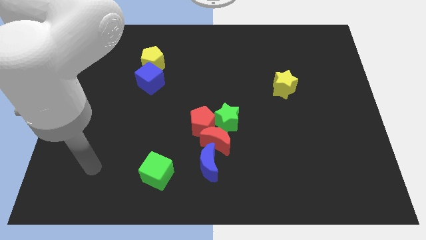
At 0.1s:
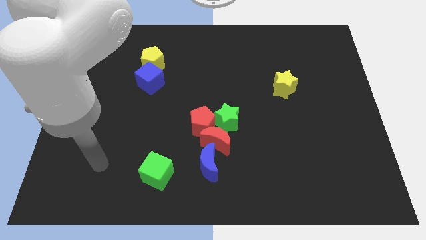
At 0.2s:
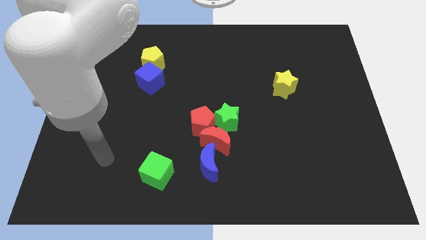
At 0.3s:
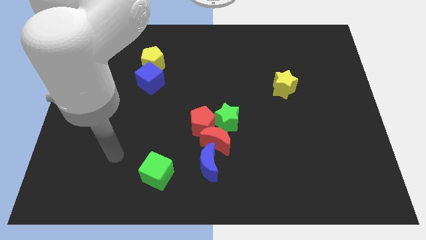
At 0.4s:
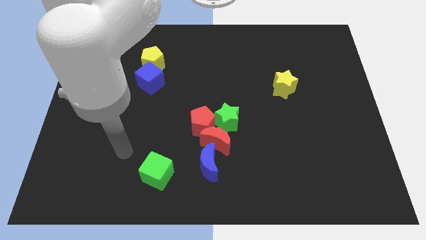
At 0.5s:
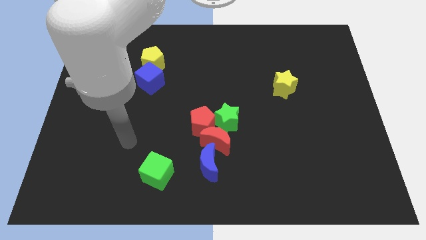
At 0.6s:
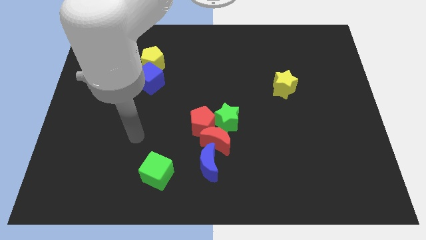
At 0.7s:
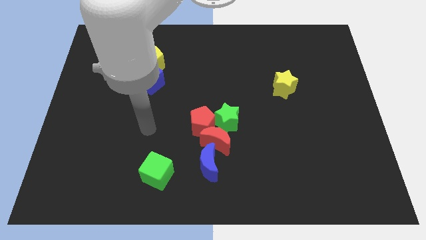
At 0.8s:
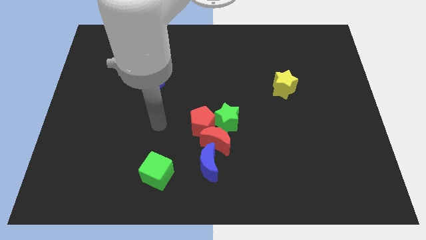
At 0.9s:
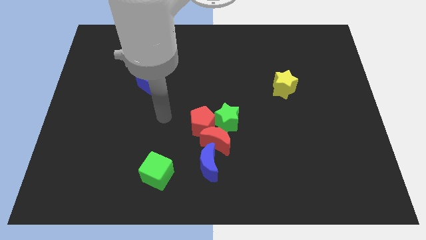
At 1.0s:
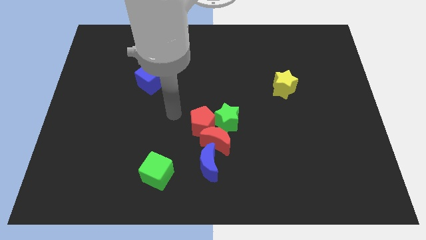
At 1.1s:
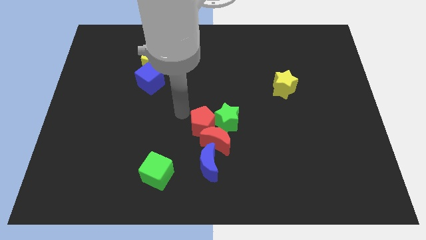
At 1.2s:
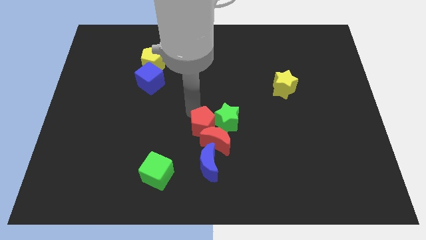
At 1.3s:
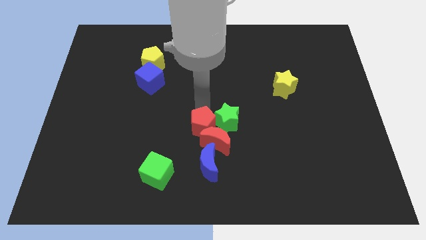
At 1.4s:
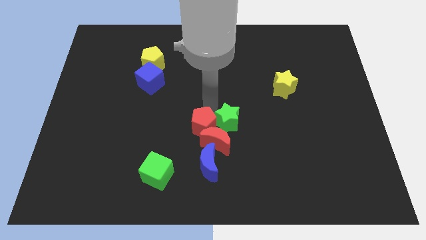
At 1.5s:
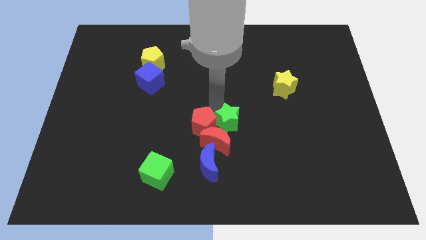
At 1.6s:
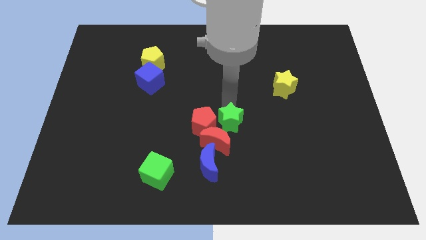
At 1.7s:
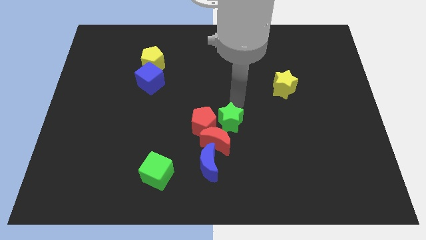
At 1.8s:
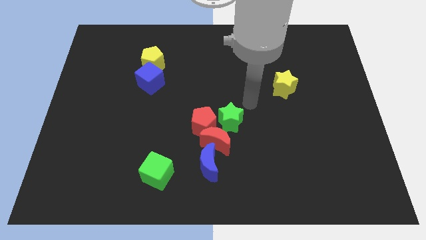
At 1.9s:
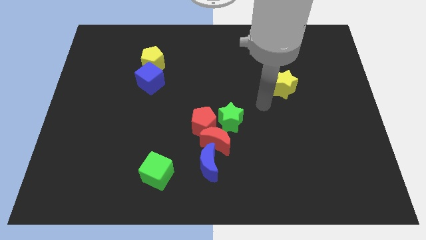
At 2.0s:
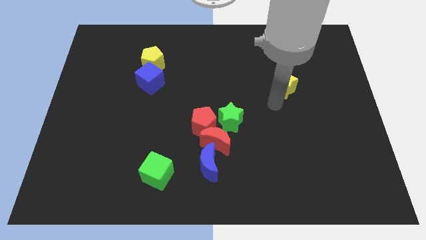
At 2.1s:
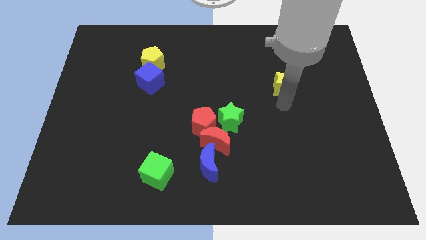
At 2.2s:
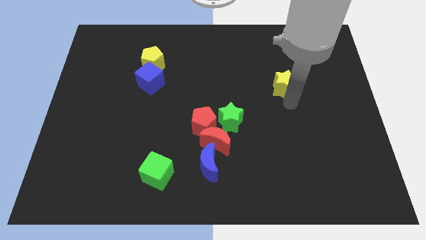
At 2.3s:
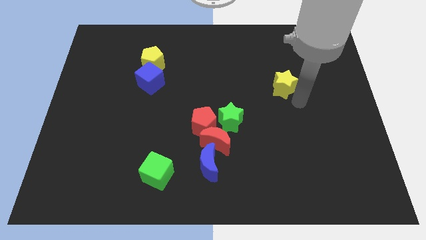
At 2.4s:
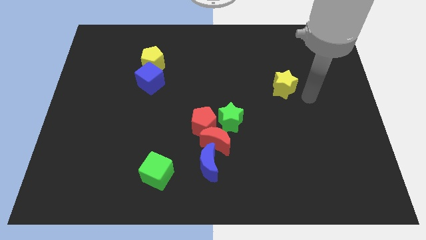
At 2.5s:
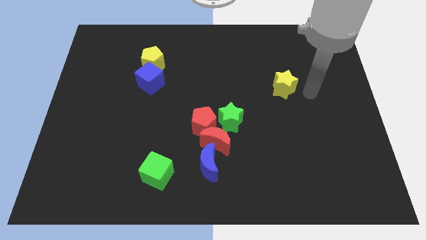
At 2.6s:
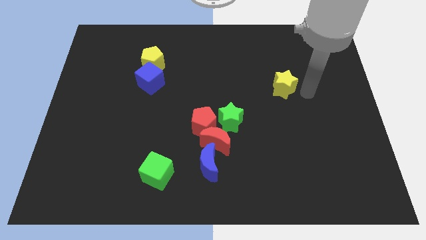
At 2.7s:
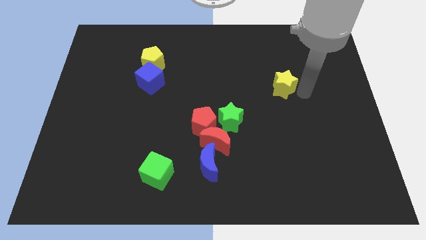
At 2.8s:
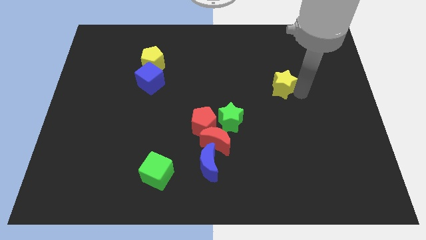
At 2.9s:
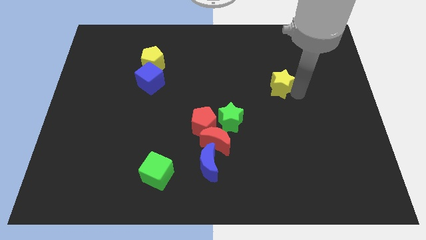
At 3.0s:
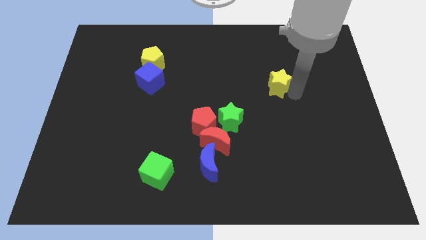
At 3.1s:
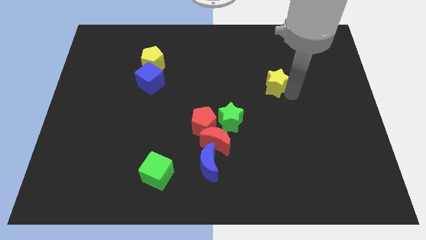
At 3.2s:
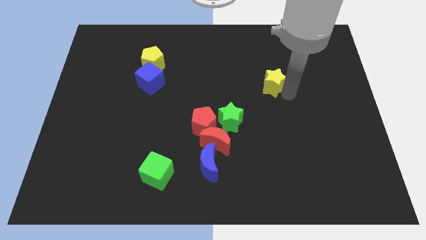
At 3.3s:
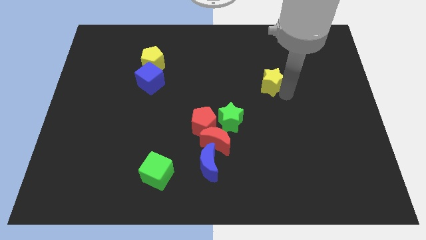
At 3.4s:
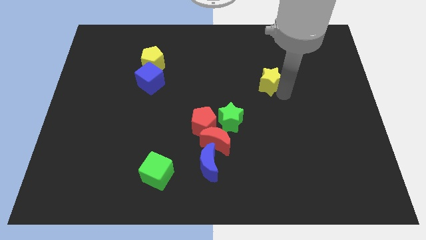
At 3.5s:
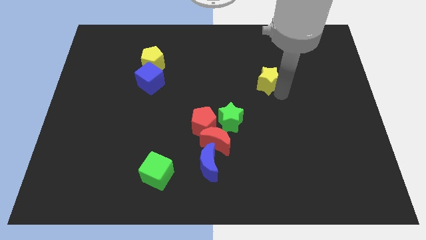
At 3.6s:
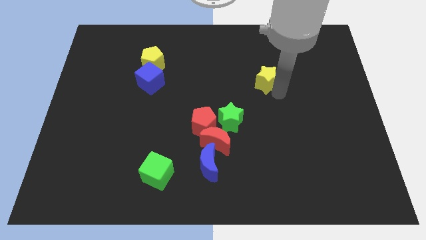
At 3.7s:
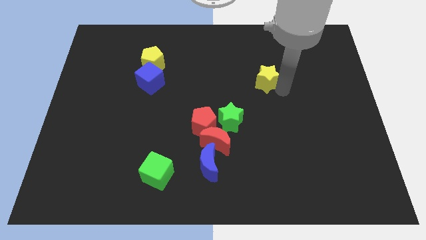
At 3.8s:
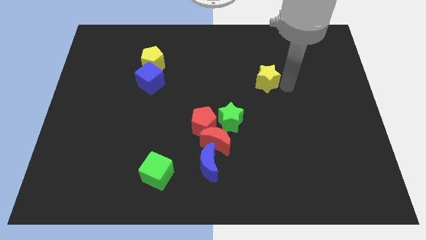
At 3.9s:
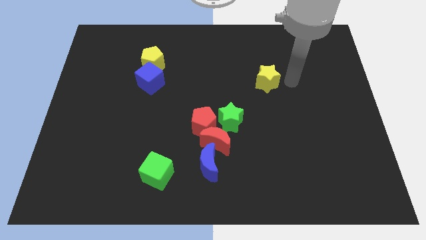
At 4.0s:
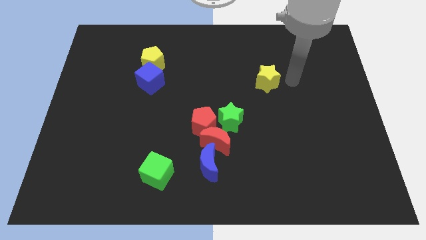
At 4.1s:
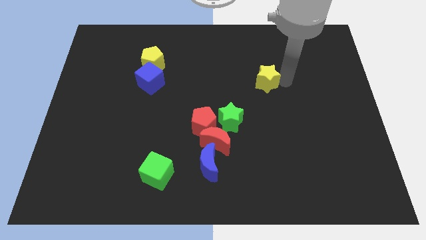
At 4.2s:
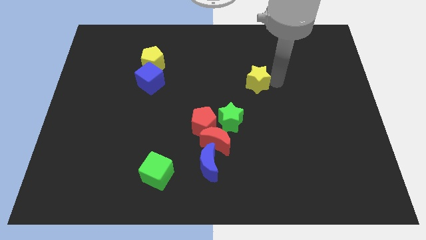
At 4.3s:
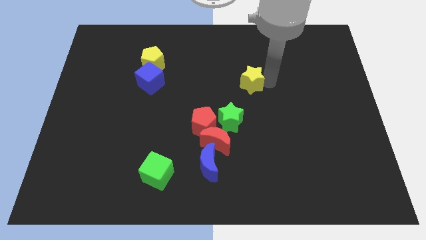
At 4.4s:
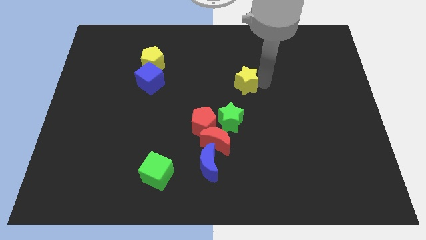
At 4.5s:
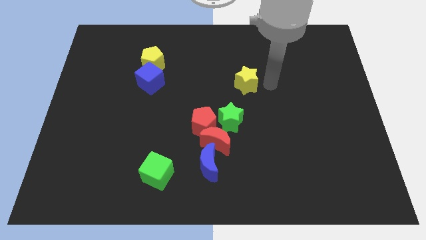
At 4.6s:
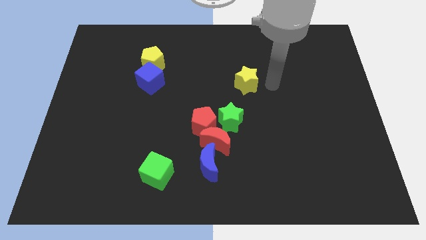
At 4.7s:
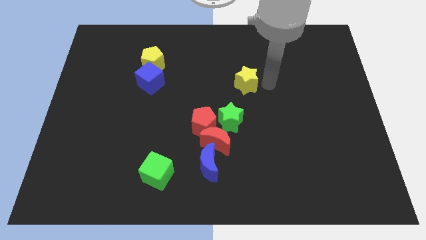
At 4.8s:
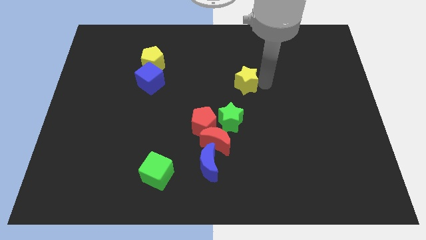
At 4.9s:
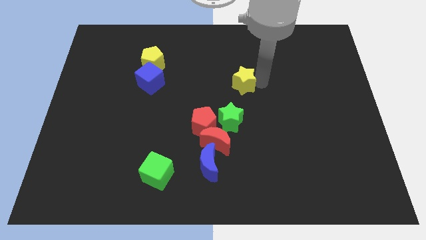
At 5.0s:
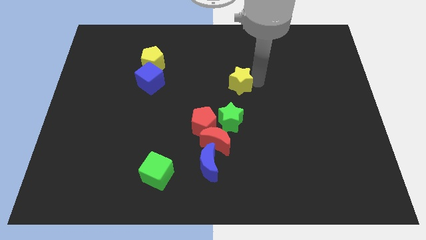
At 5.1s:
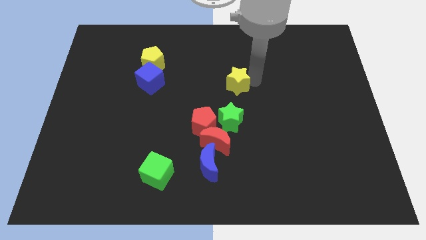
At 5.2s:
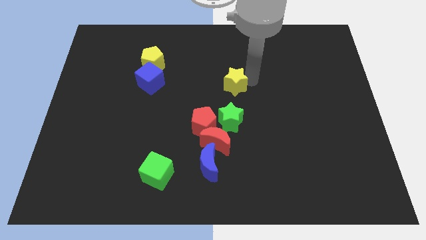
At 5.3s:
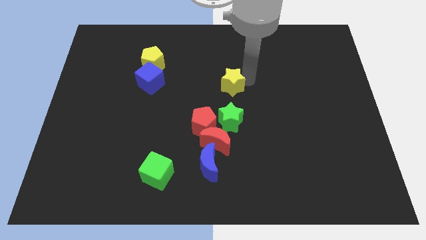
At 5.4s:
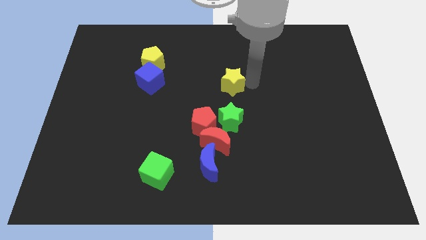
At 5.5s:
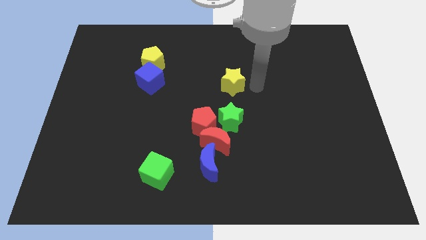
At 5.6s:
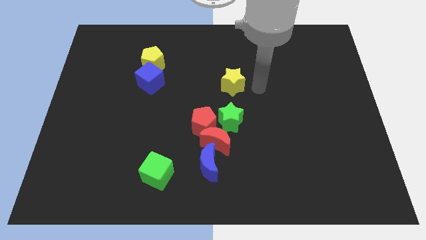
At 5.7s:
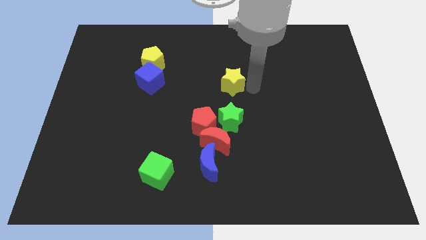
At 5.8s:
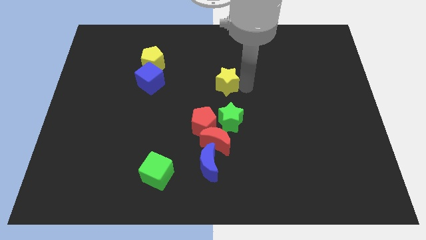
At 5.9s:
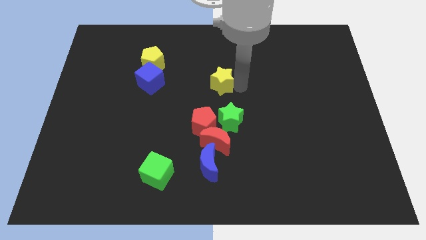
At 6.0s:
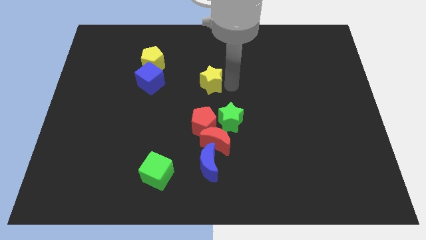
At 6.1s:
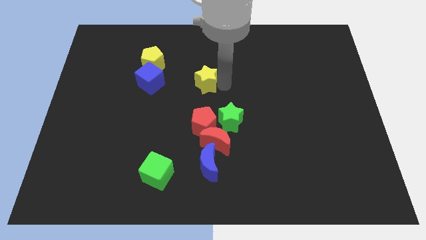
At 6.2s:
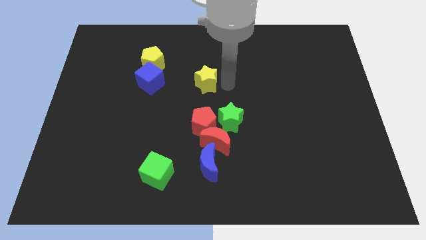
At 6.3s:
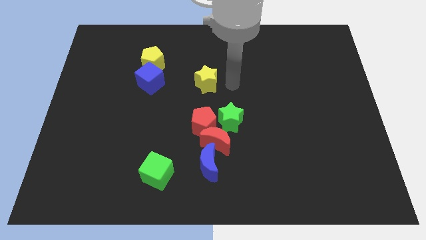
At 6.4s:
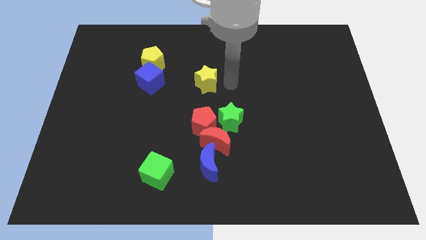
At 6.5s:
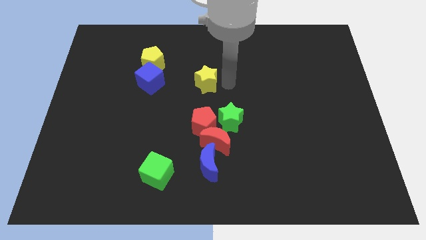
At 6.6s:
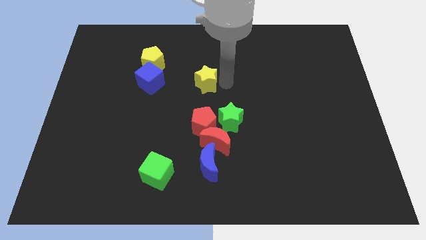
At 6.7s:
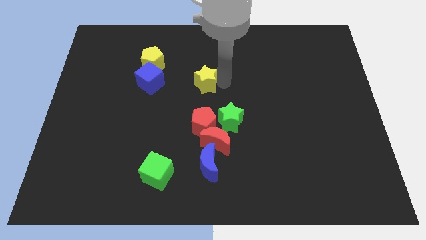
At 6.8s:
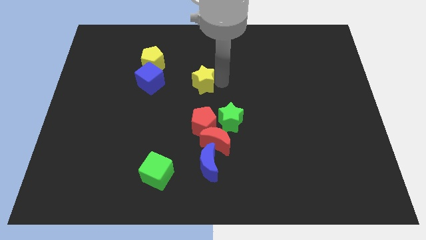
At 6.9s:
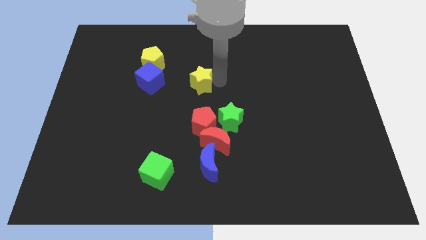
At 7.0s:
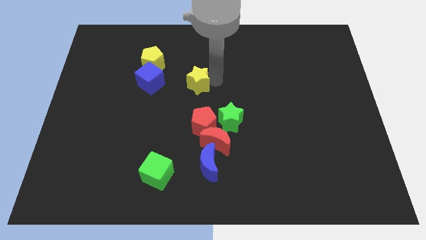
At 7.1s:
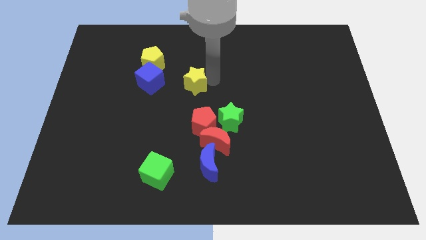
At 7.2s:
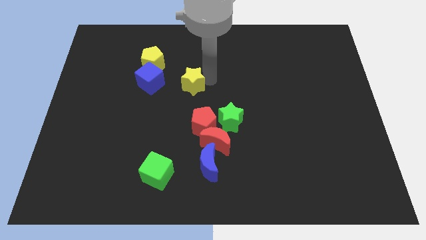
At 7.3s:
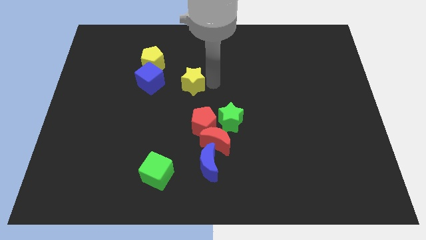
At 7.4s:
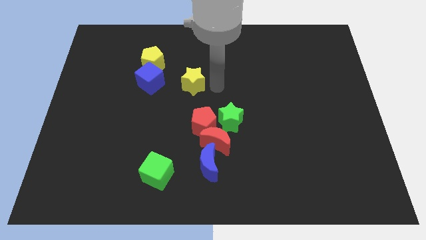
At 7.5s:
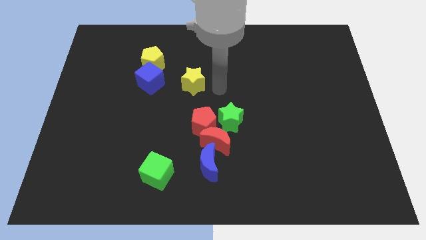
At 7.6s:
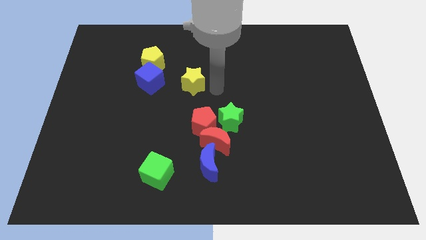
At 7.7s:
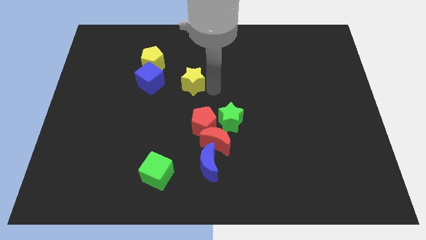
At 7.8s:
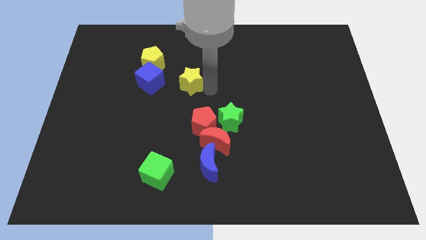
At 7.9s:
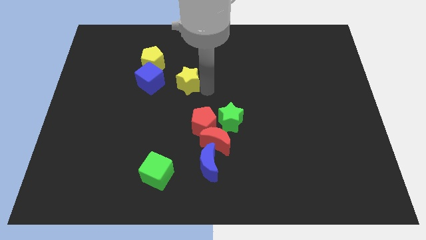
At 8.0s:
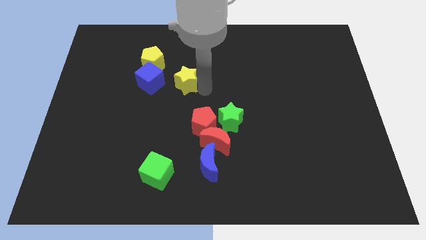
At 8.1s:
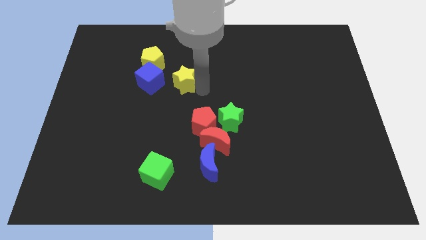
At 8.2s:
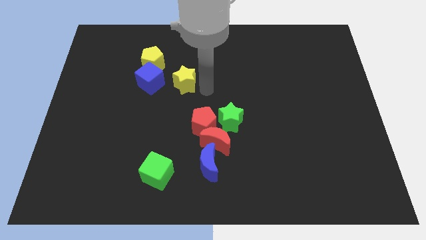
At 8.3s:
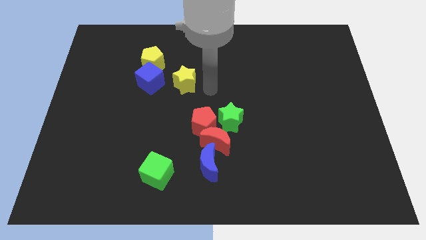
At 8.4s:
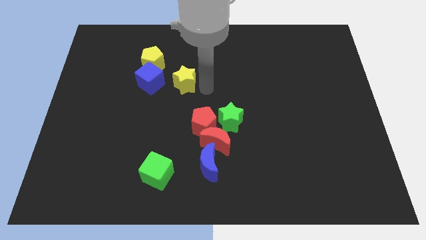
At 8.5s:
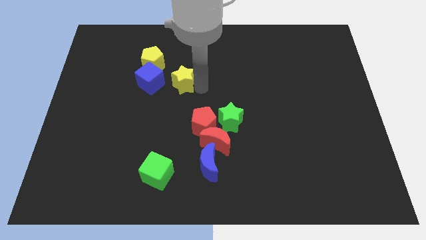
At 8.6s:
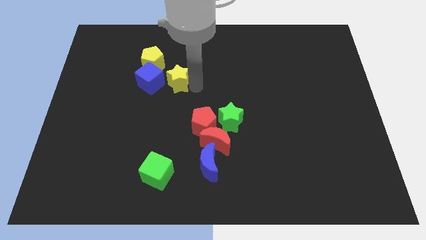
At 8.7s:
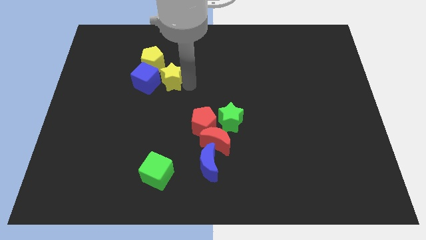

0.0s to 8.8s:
slide the yellow star close to the blue cube
